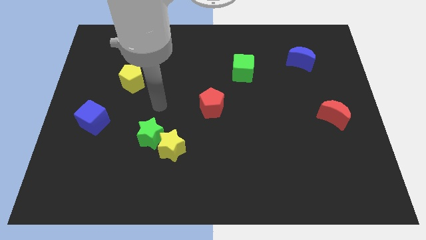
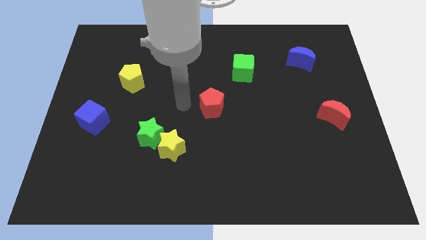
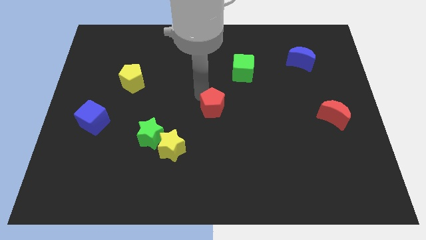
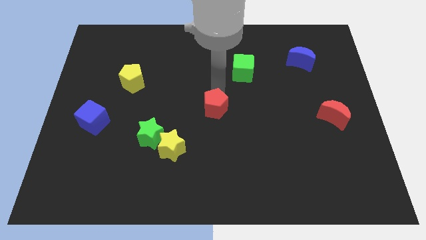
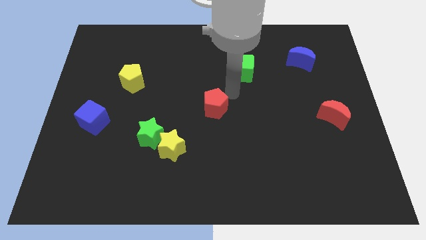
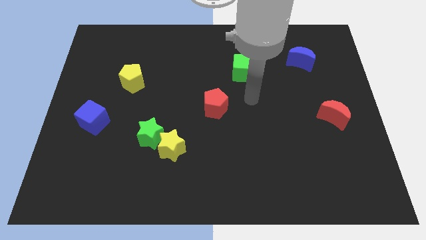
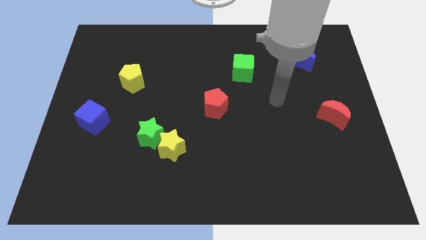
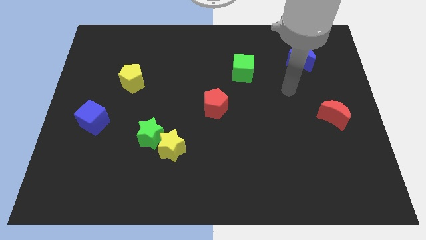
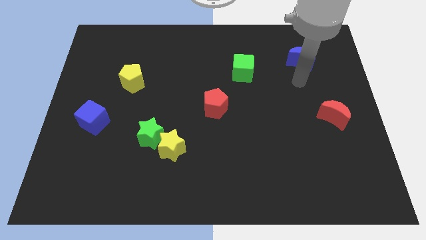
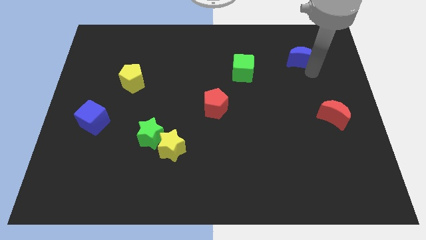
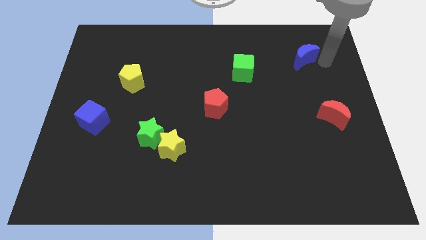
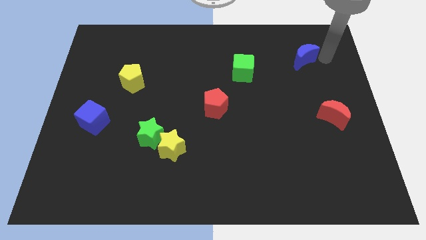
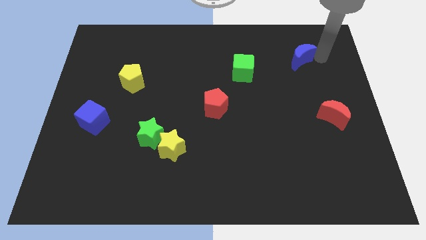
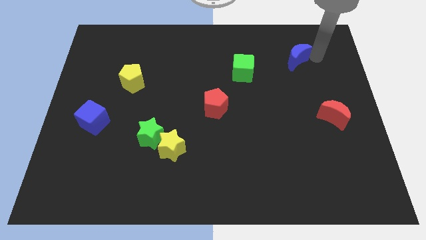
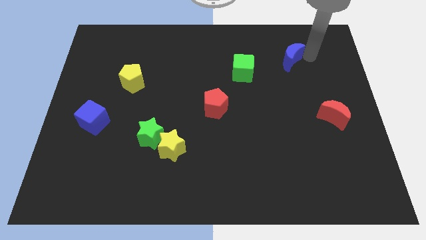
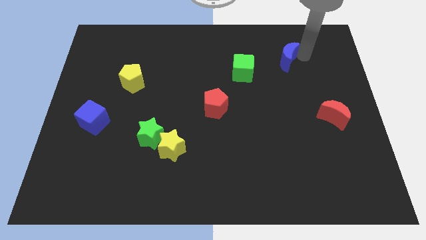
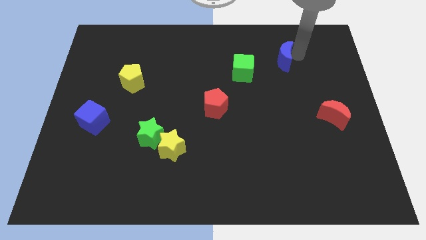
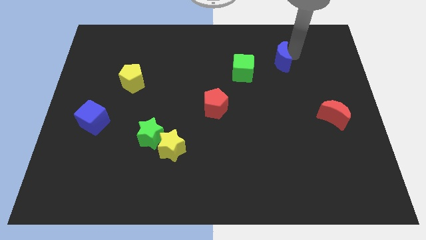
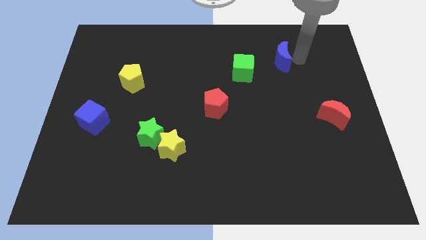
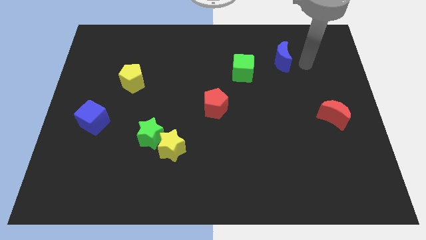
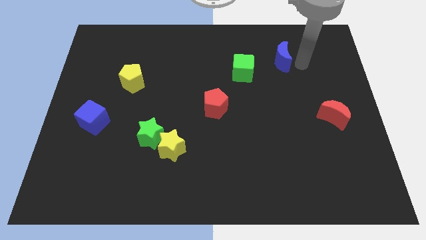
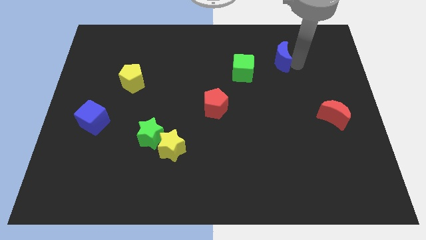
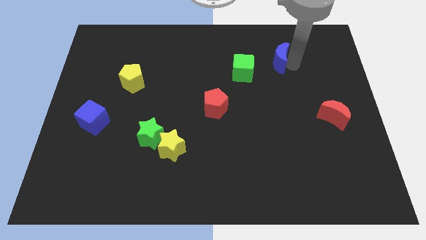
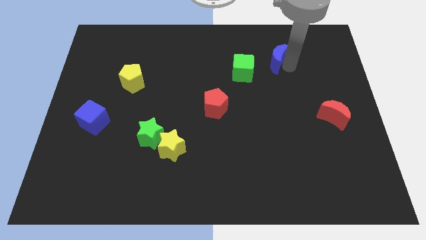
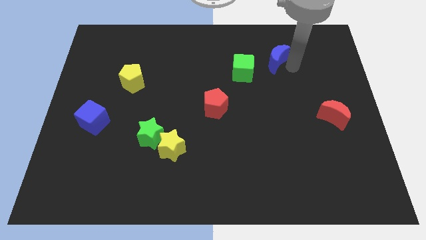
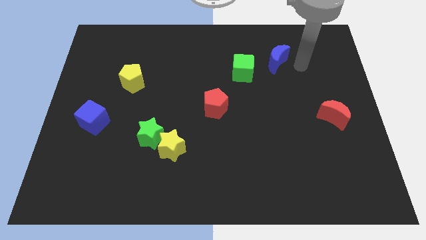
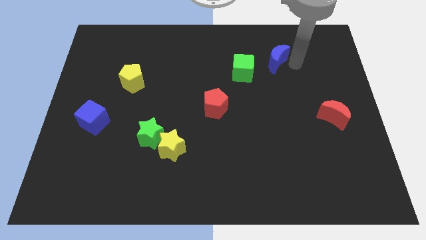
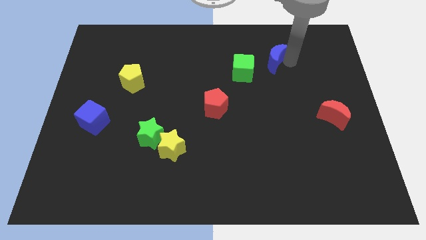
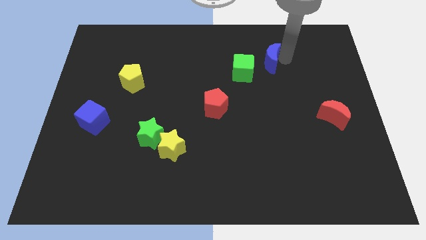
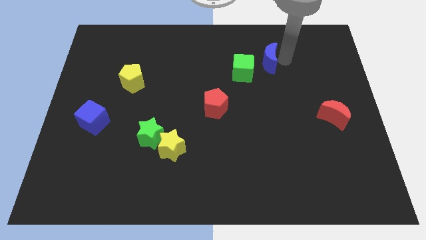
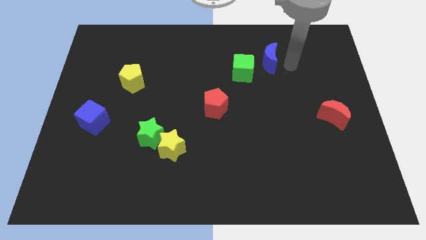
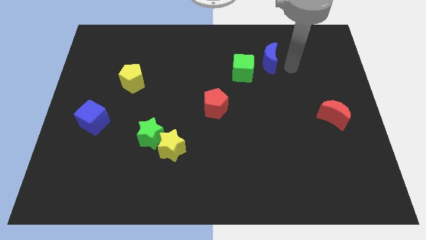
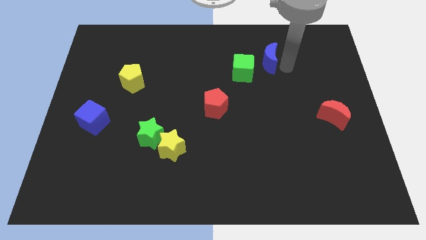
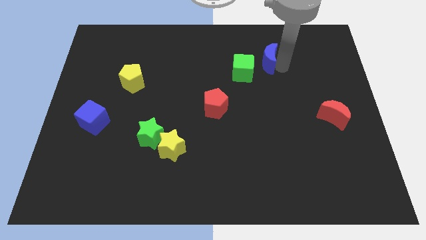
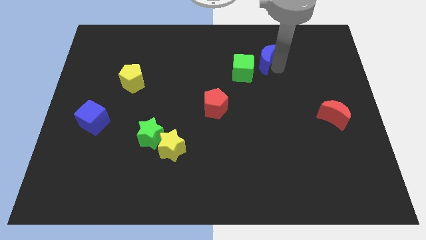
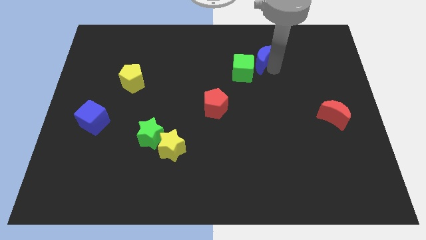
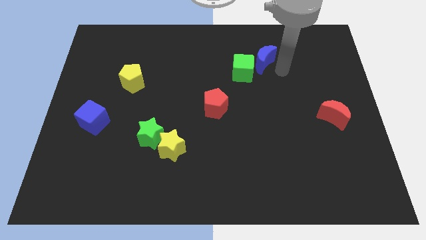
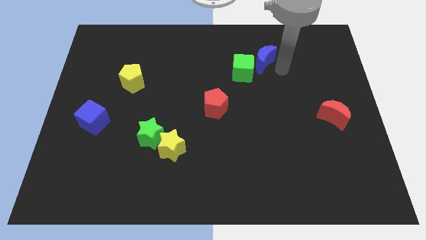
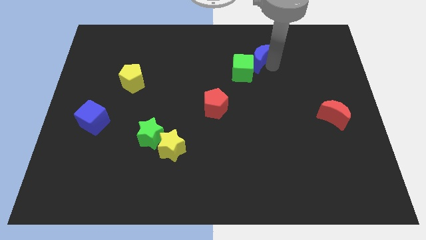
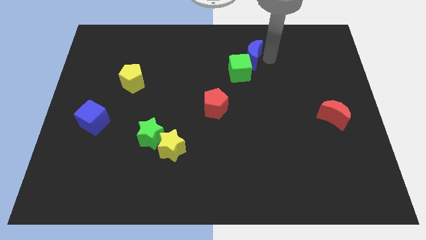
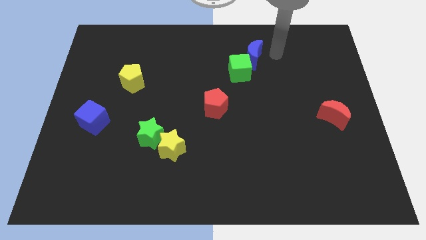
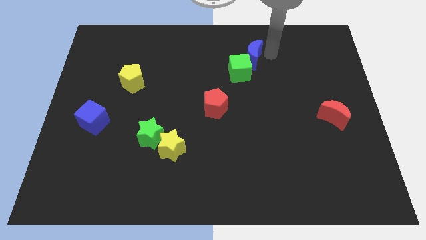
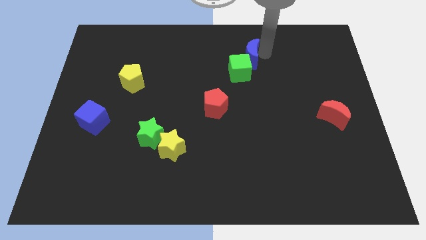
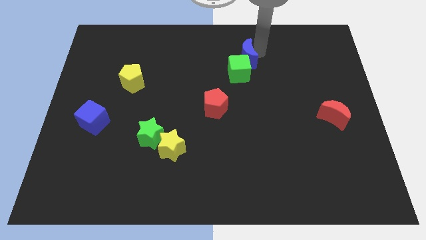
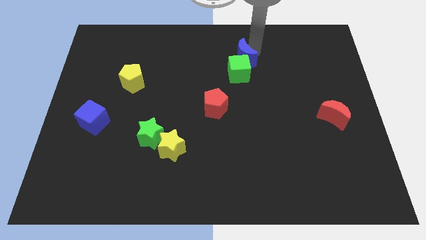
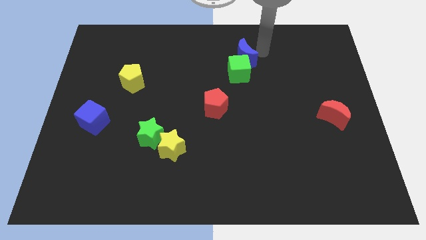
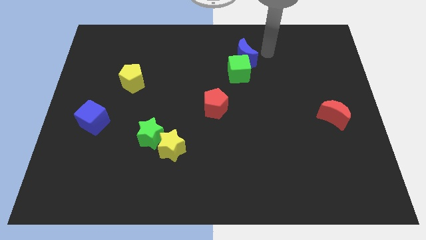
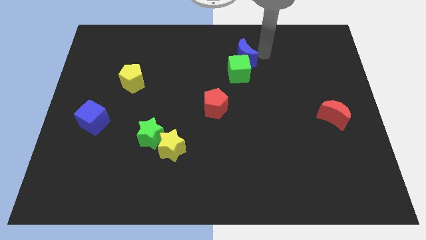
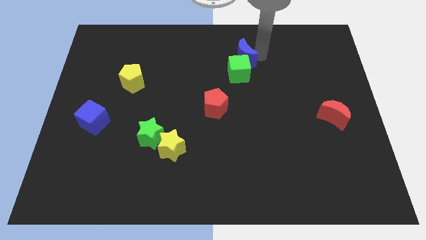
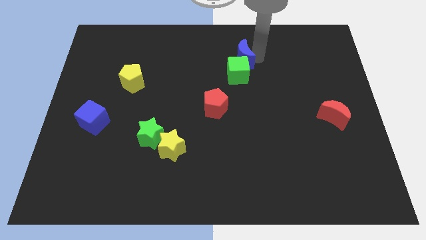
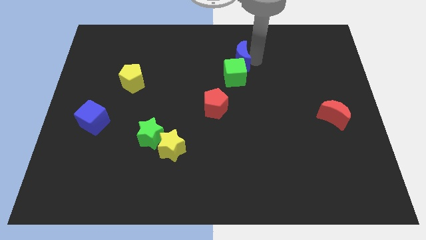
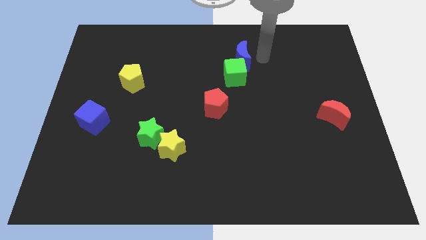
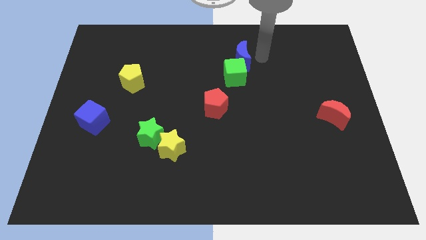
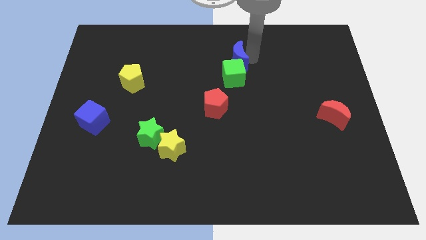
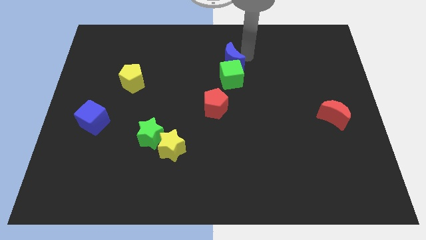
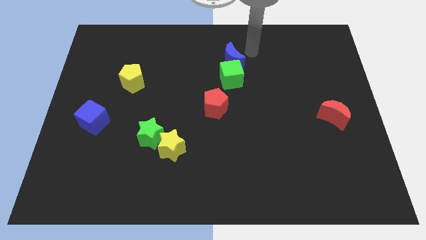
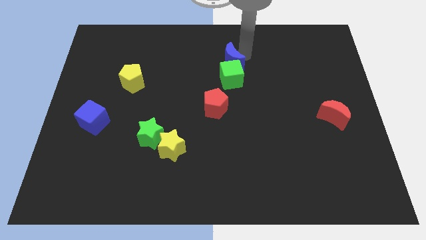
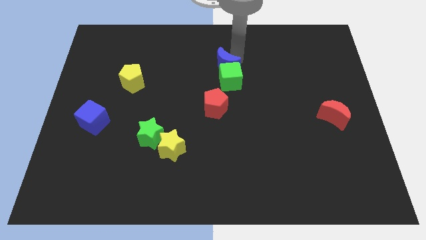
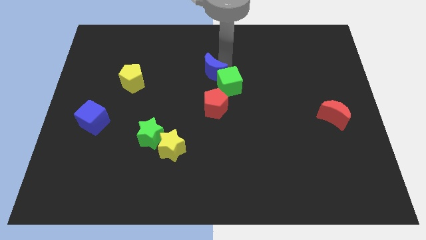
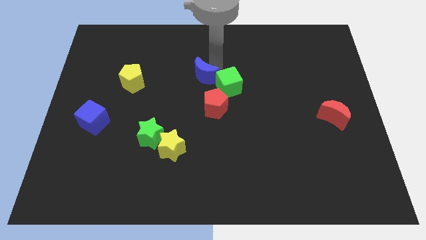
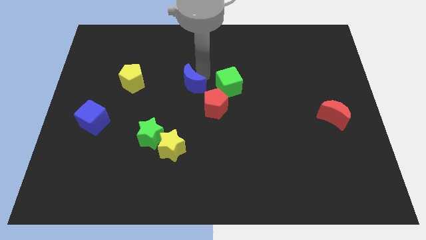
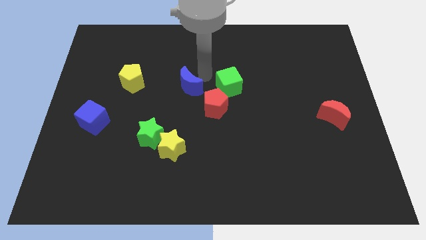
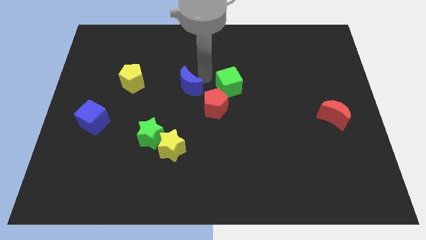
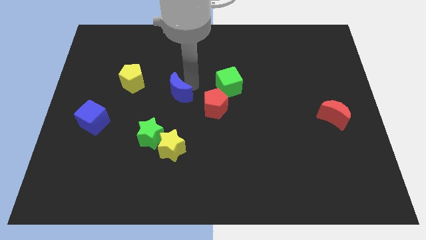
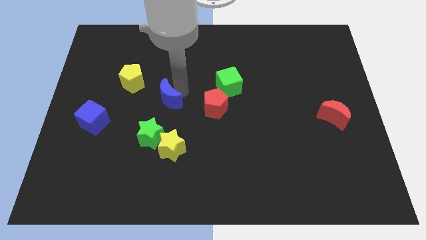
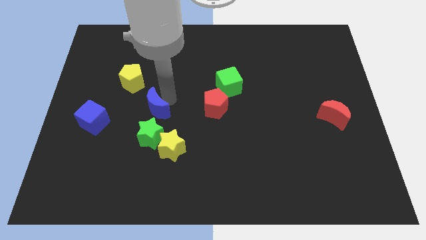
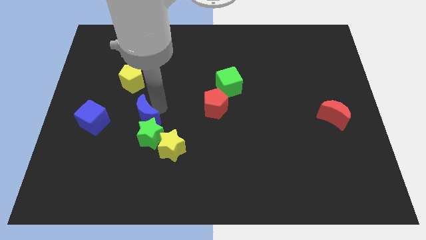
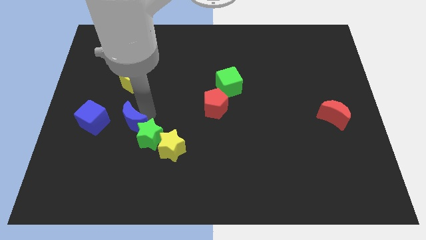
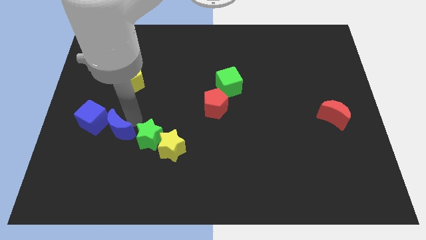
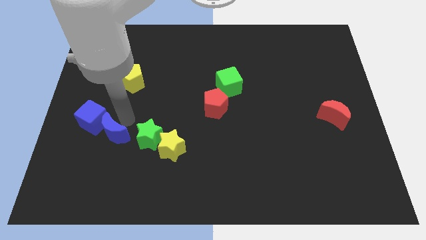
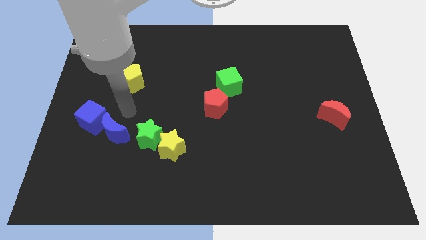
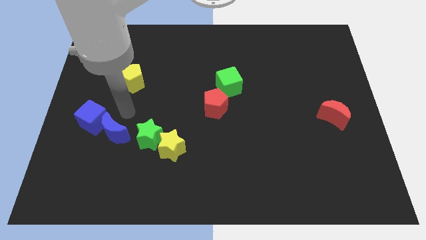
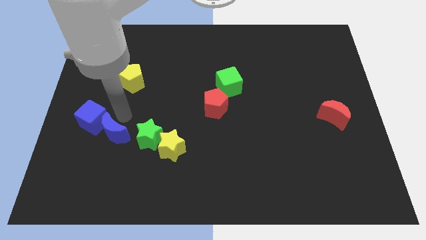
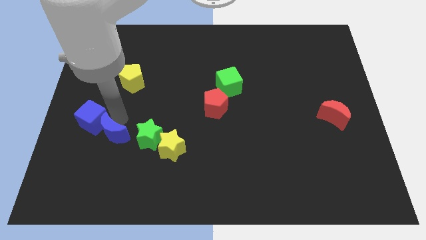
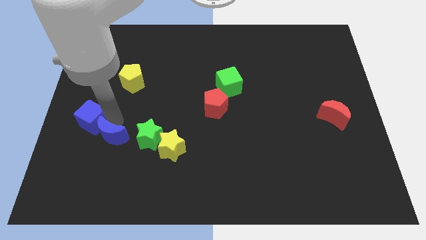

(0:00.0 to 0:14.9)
put the blue moon to the bottom side of the blue cube
